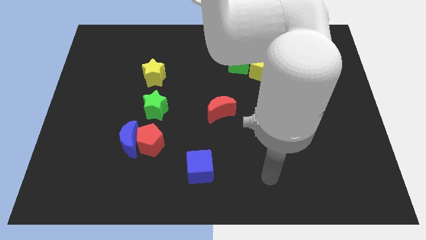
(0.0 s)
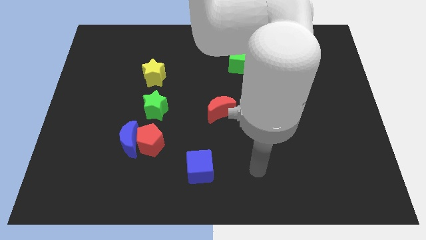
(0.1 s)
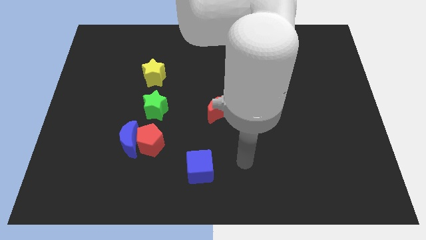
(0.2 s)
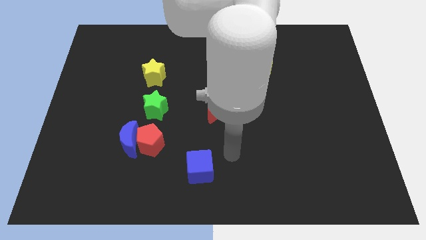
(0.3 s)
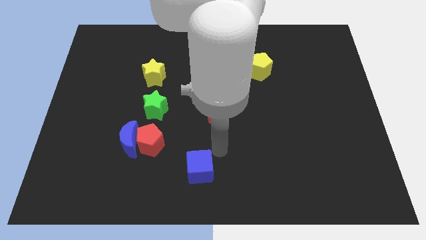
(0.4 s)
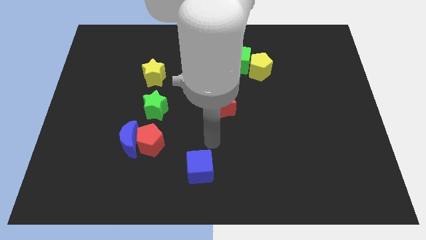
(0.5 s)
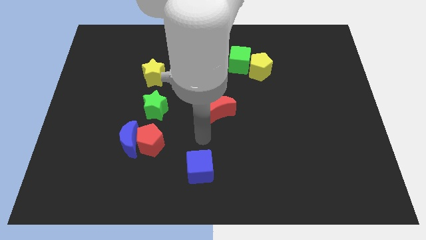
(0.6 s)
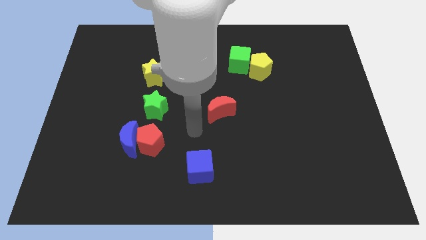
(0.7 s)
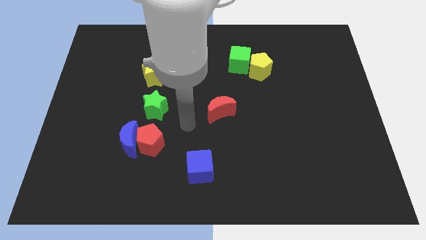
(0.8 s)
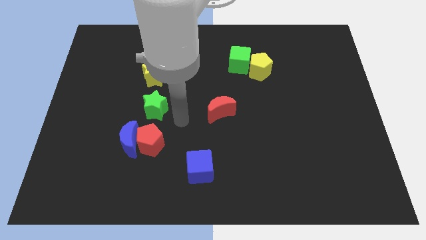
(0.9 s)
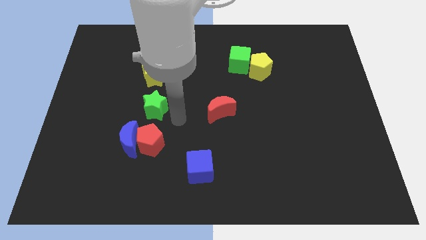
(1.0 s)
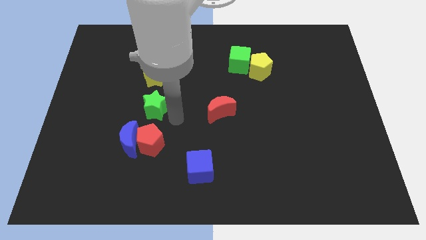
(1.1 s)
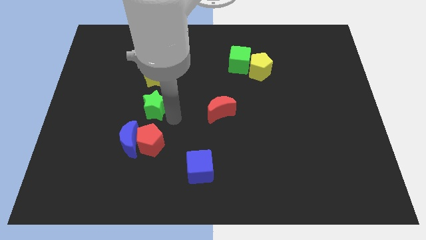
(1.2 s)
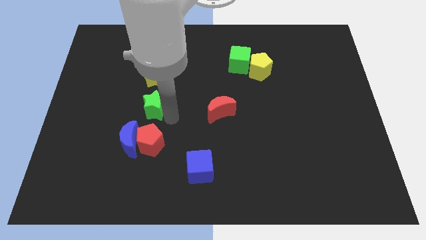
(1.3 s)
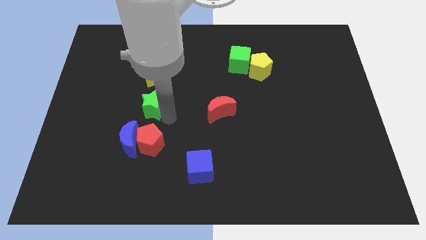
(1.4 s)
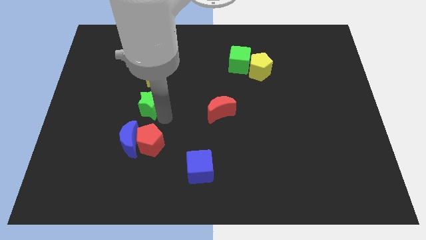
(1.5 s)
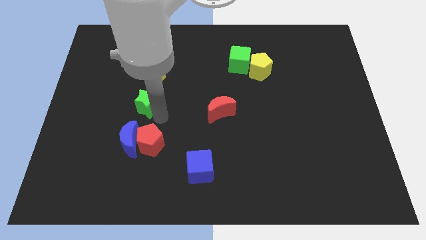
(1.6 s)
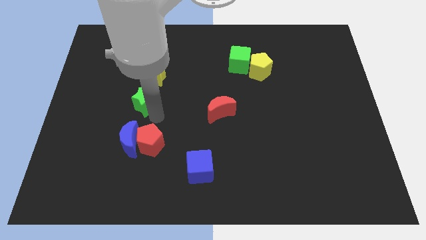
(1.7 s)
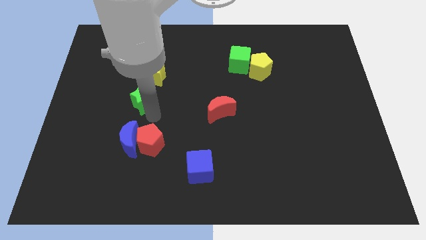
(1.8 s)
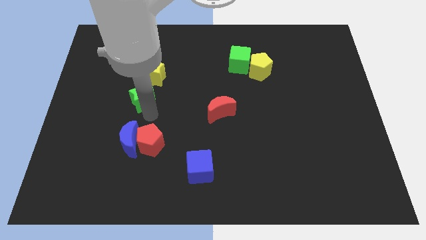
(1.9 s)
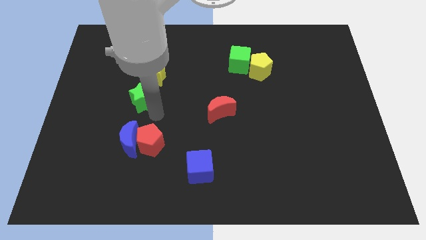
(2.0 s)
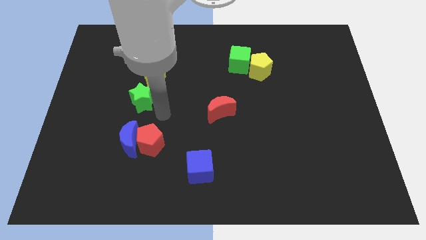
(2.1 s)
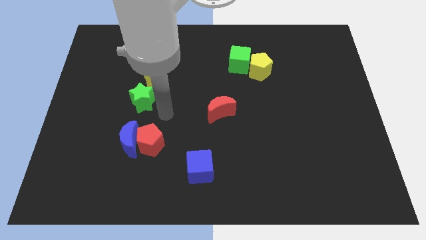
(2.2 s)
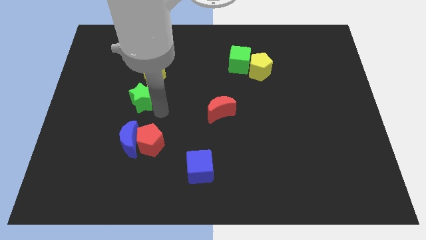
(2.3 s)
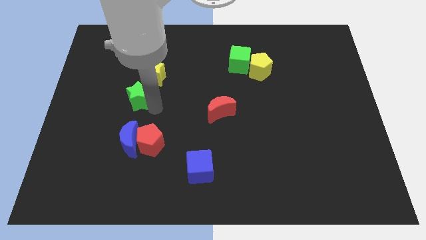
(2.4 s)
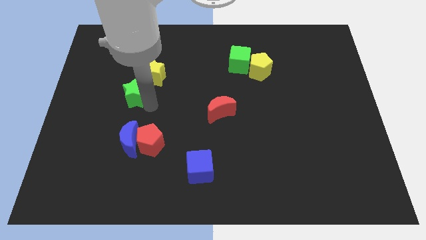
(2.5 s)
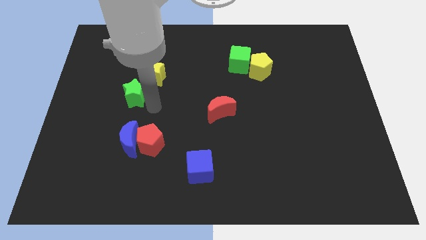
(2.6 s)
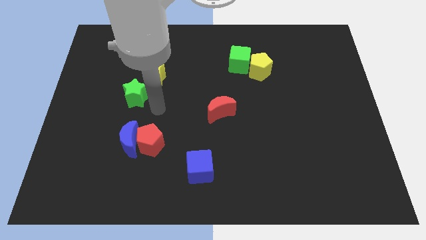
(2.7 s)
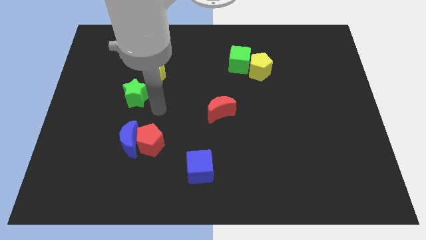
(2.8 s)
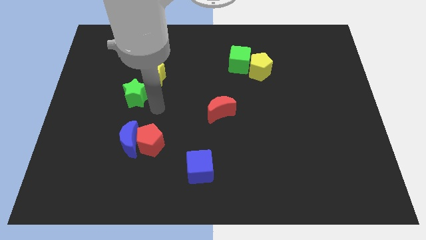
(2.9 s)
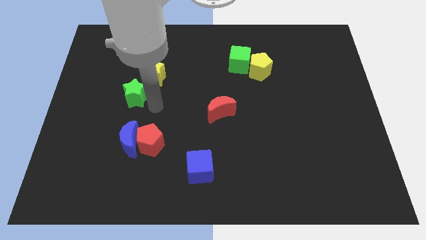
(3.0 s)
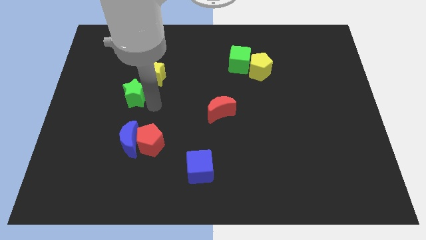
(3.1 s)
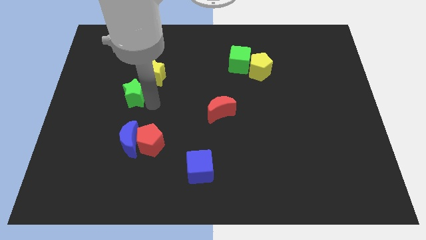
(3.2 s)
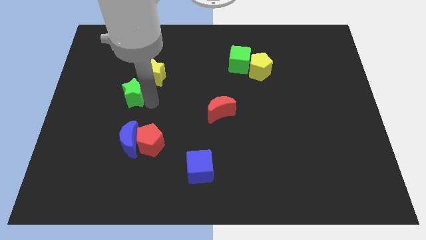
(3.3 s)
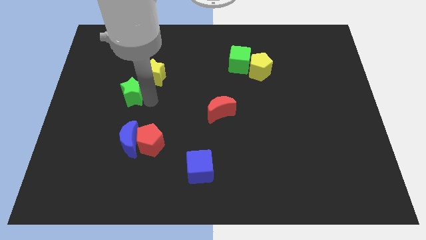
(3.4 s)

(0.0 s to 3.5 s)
push the green star up and to the left diagonally a little

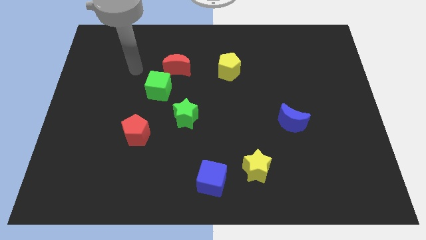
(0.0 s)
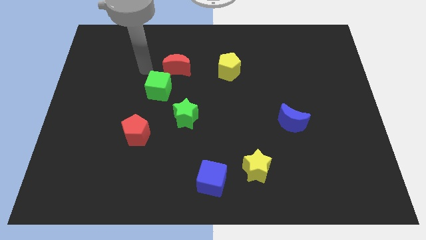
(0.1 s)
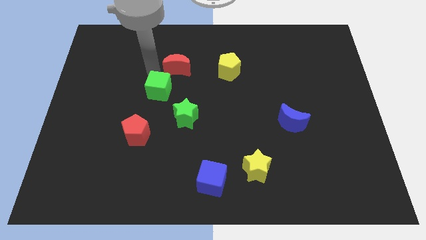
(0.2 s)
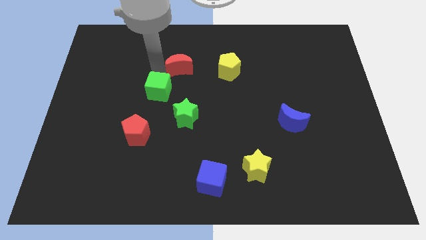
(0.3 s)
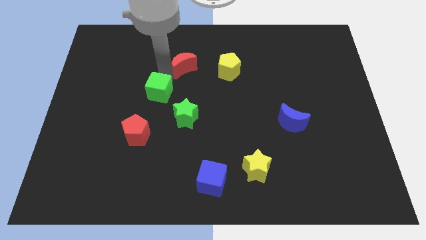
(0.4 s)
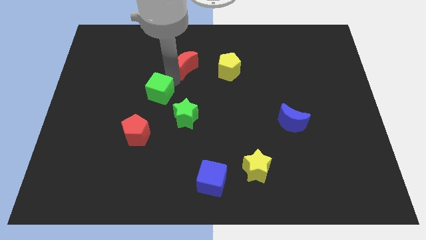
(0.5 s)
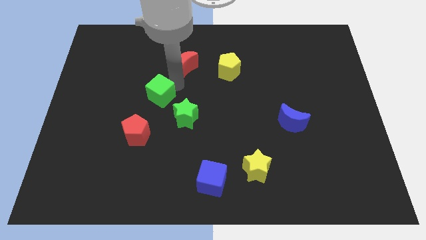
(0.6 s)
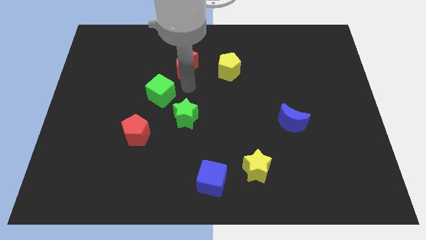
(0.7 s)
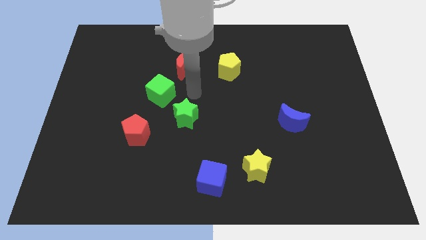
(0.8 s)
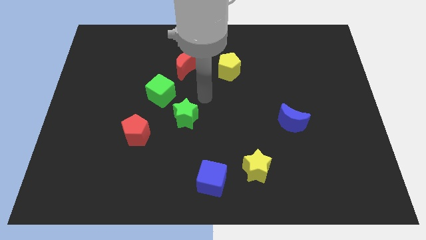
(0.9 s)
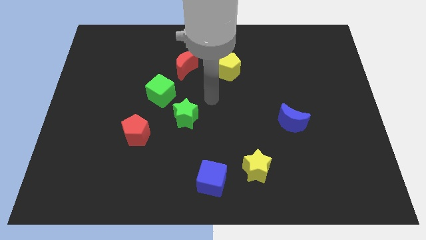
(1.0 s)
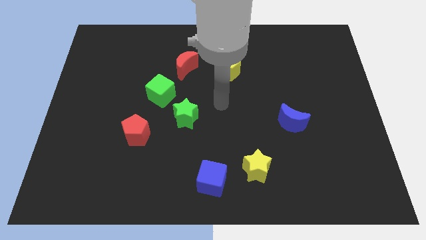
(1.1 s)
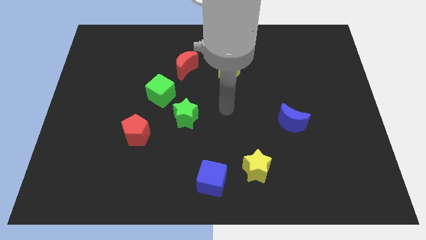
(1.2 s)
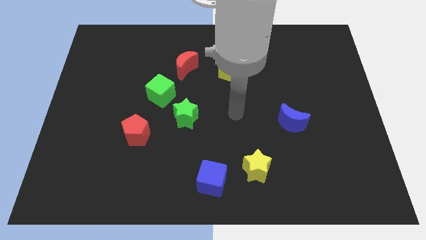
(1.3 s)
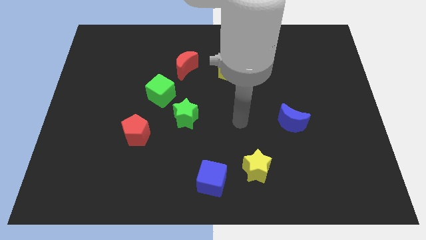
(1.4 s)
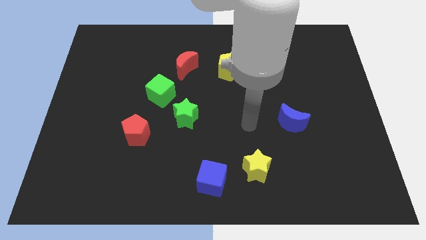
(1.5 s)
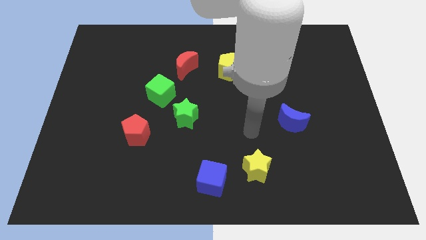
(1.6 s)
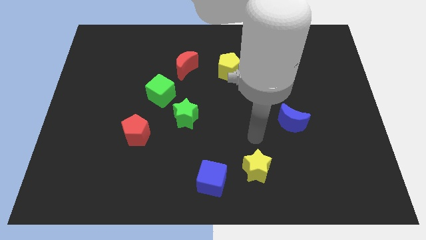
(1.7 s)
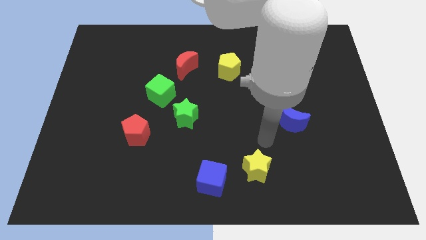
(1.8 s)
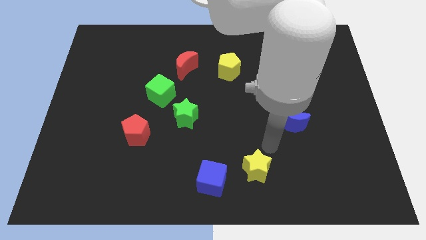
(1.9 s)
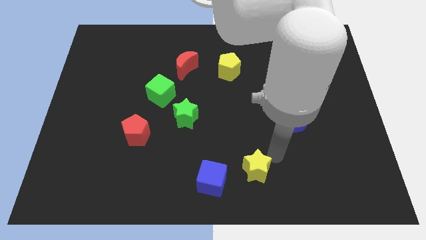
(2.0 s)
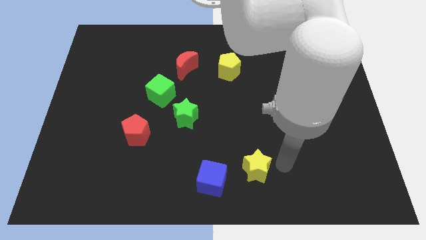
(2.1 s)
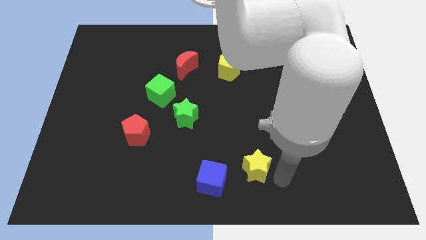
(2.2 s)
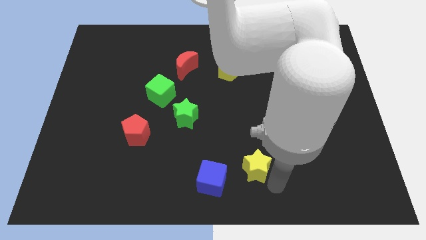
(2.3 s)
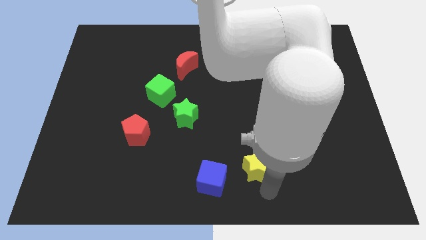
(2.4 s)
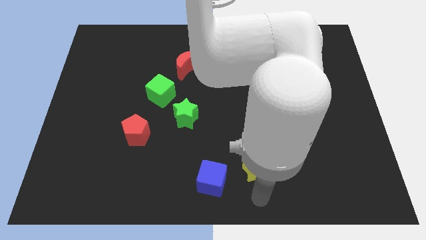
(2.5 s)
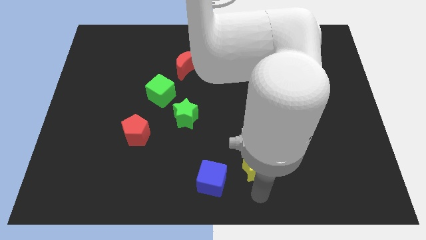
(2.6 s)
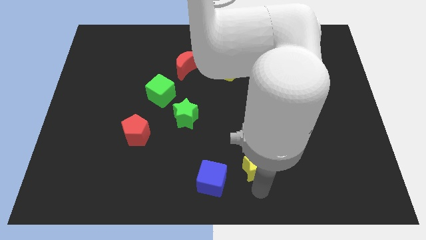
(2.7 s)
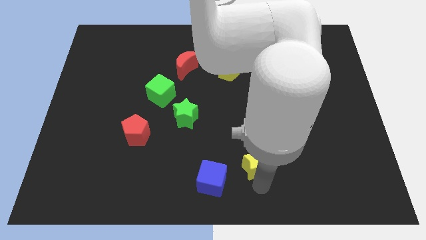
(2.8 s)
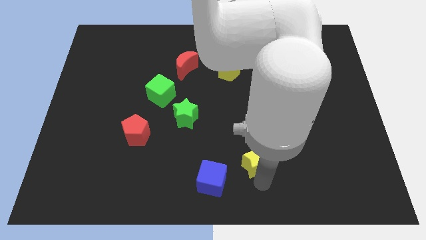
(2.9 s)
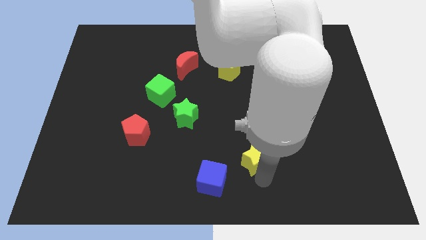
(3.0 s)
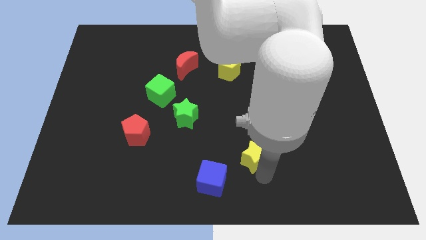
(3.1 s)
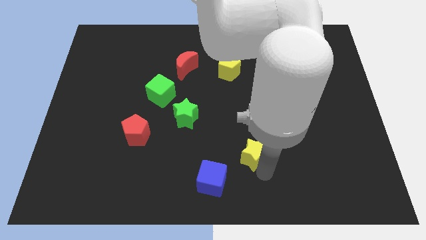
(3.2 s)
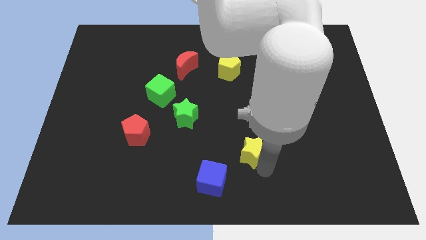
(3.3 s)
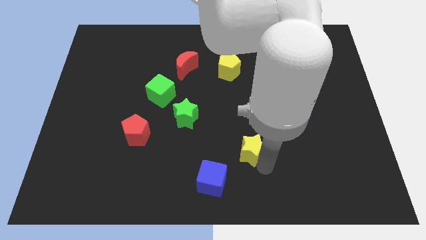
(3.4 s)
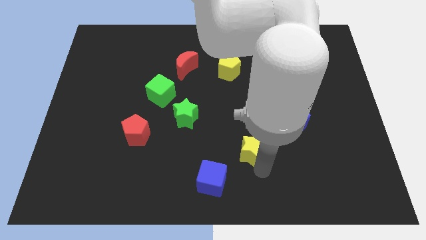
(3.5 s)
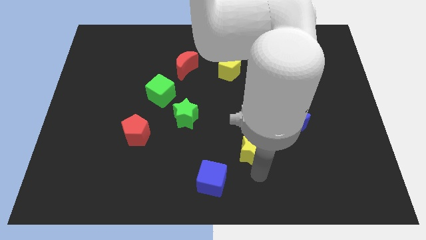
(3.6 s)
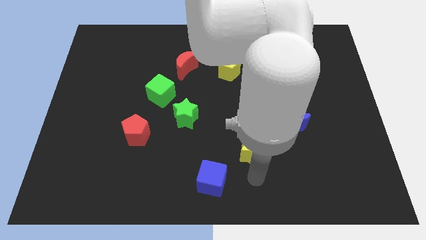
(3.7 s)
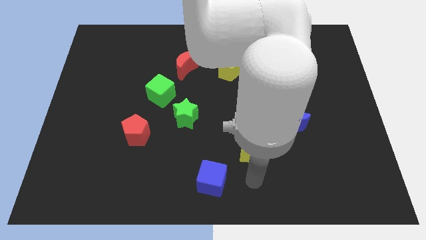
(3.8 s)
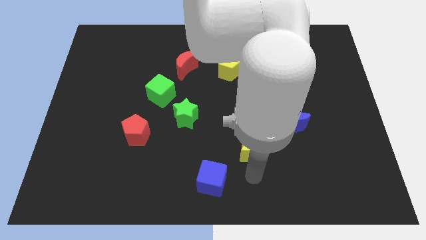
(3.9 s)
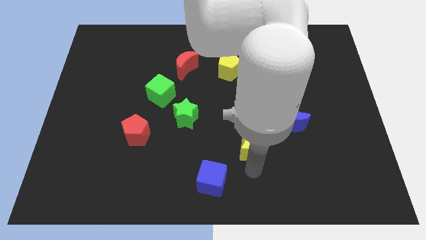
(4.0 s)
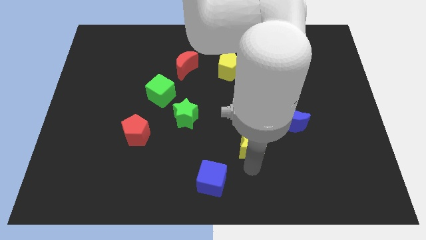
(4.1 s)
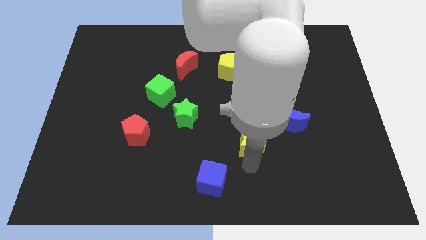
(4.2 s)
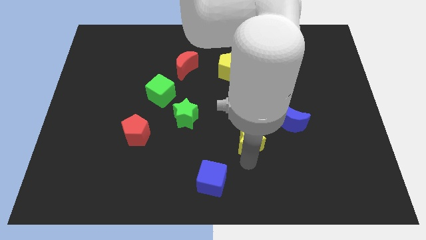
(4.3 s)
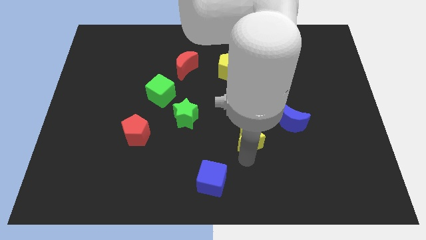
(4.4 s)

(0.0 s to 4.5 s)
move the yellow star a little upwards

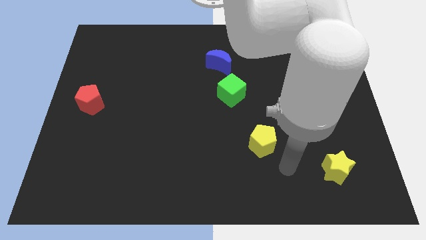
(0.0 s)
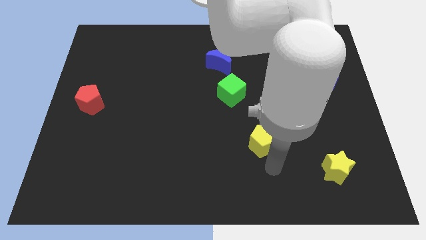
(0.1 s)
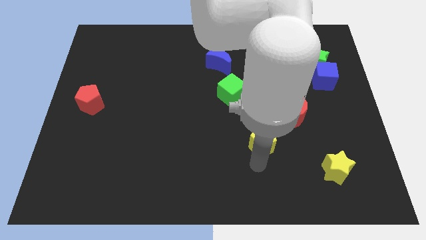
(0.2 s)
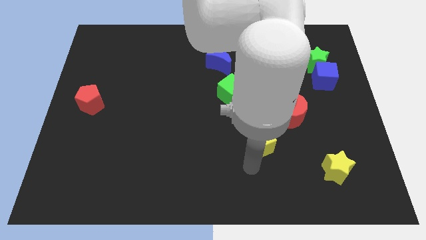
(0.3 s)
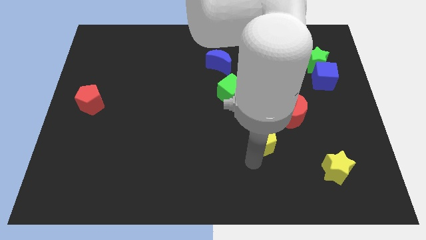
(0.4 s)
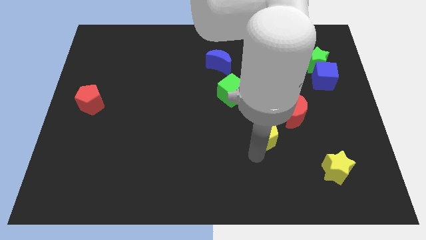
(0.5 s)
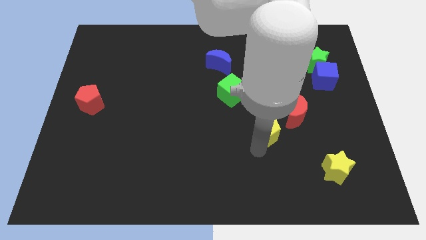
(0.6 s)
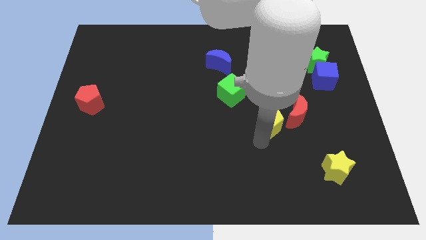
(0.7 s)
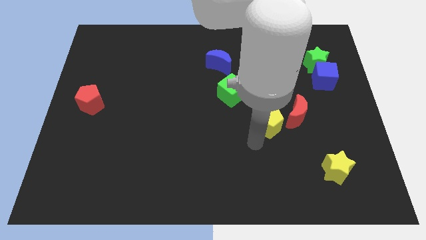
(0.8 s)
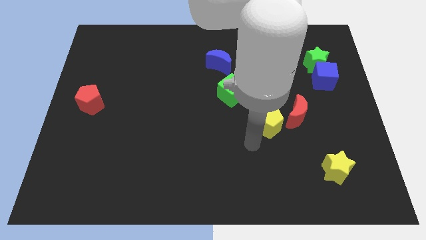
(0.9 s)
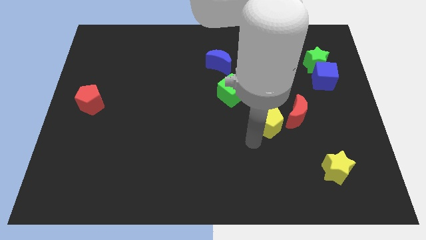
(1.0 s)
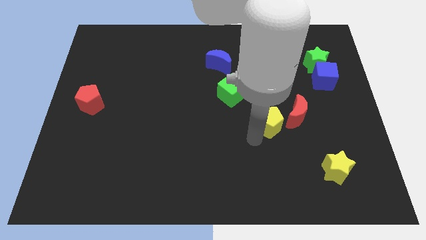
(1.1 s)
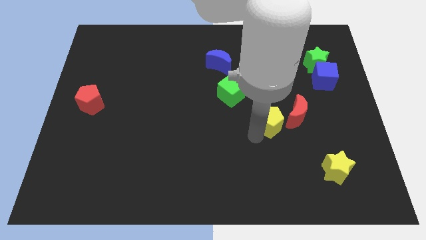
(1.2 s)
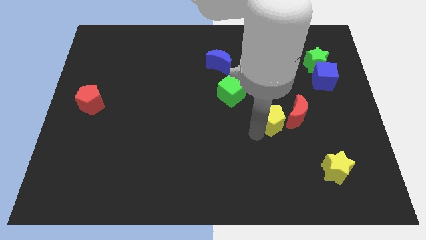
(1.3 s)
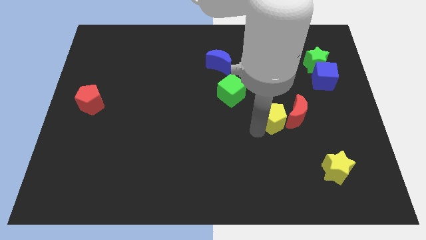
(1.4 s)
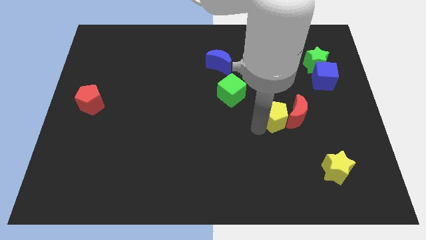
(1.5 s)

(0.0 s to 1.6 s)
slide the yellow pentagon slightly up and to the right diagonally
